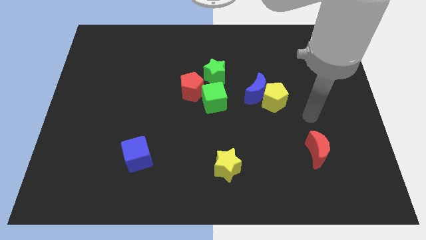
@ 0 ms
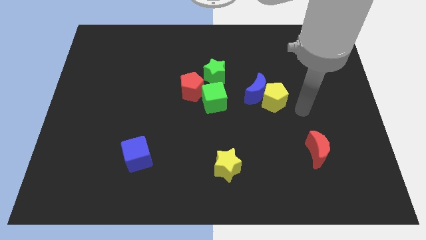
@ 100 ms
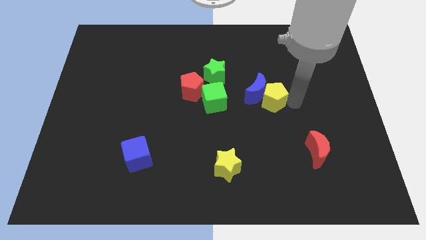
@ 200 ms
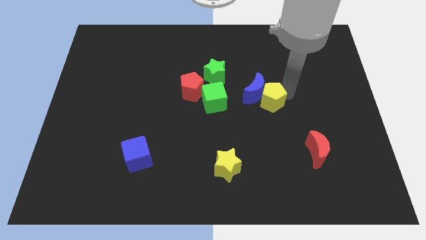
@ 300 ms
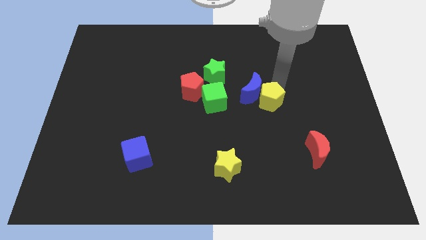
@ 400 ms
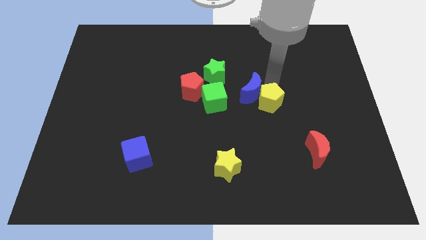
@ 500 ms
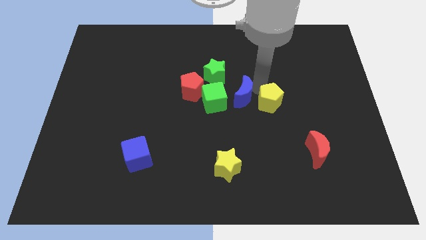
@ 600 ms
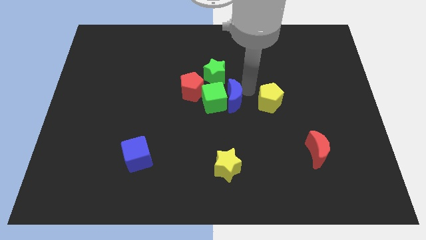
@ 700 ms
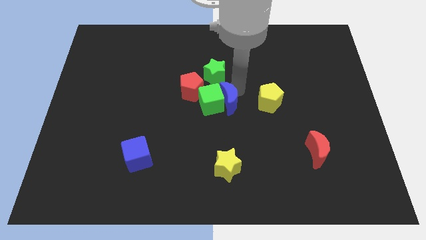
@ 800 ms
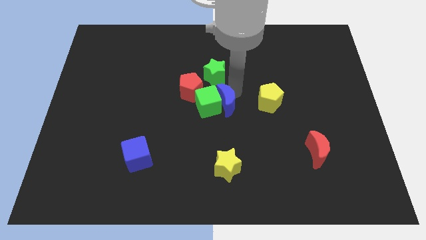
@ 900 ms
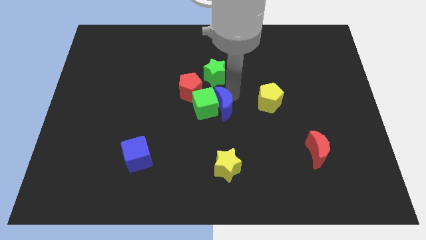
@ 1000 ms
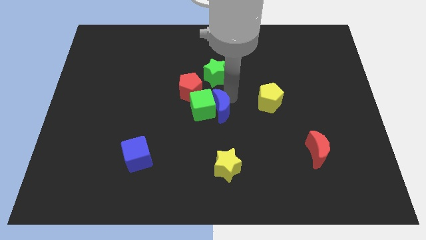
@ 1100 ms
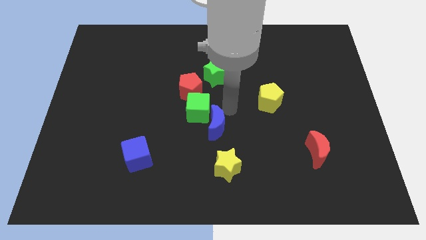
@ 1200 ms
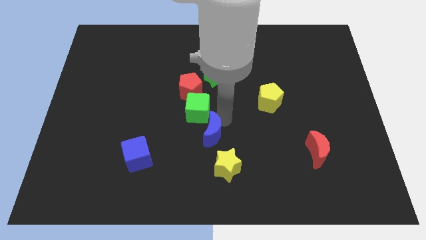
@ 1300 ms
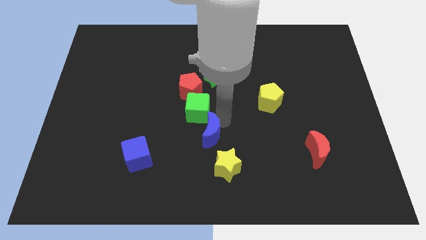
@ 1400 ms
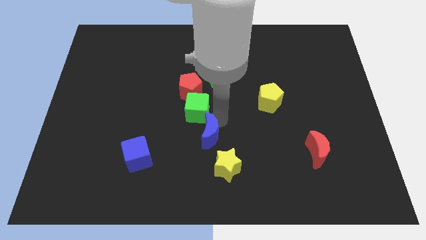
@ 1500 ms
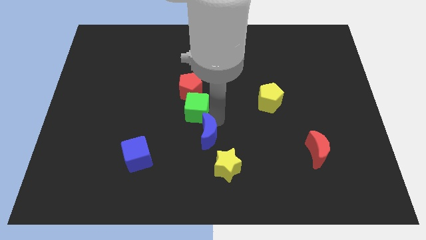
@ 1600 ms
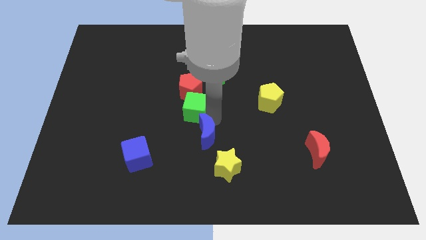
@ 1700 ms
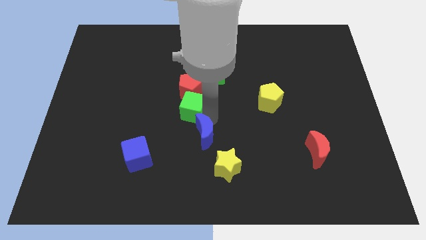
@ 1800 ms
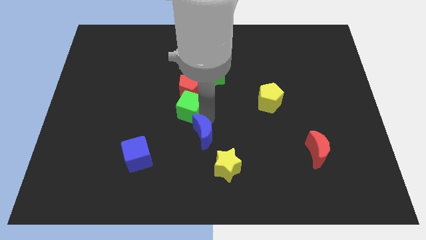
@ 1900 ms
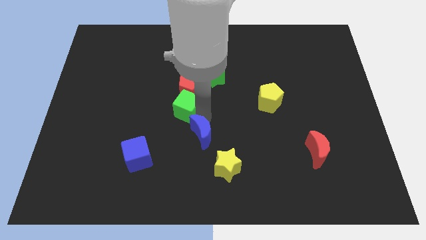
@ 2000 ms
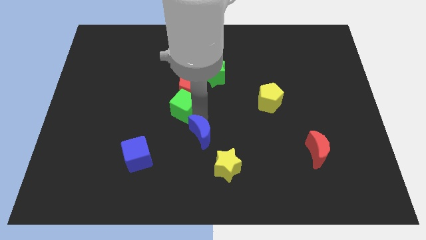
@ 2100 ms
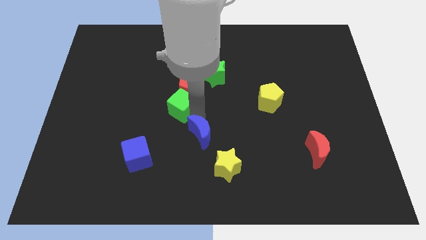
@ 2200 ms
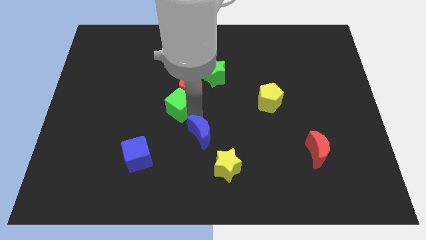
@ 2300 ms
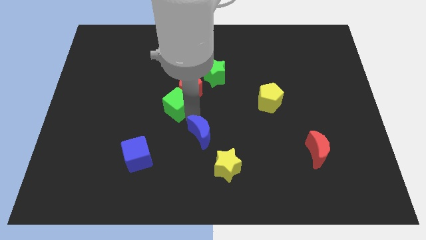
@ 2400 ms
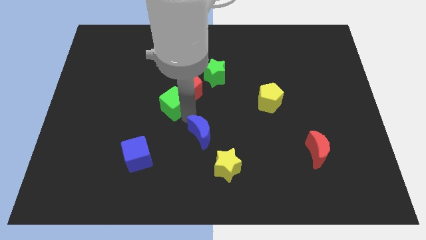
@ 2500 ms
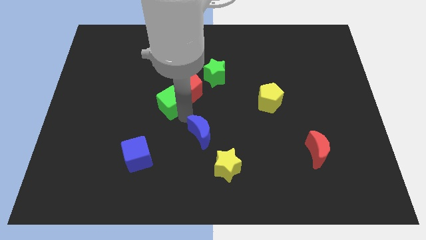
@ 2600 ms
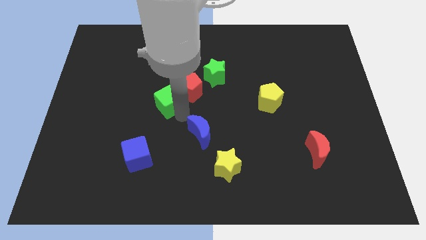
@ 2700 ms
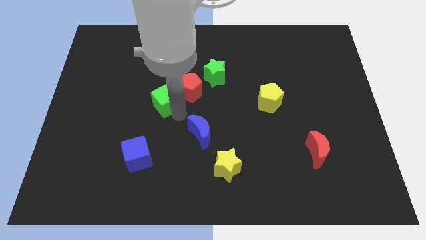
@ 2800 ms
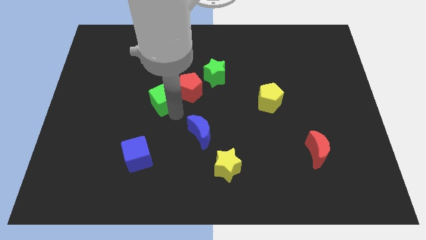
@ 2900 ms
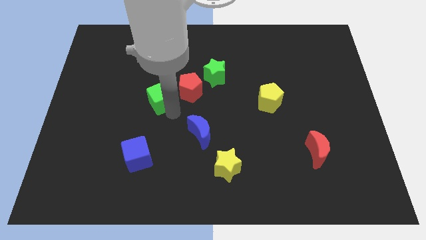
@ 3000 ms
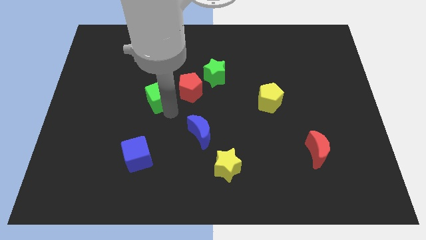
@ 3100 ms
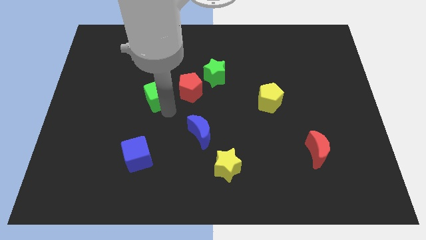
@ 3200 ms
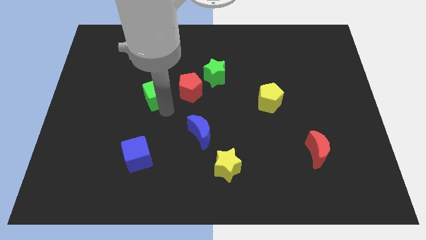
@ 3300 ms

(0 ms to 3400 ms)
push the green cube a little up and left diagonally

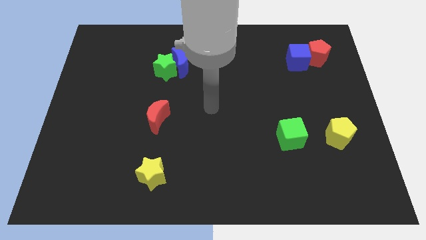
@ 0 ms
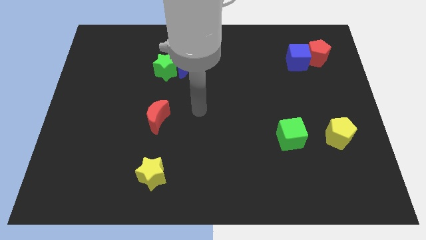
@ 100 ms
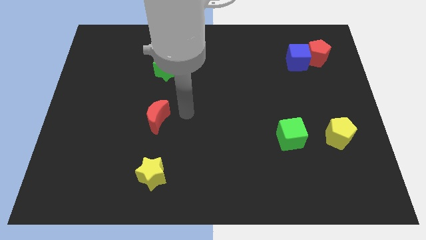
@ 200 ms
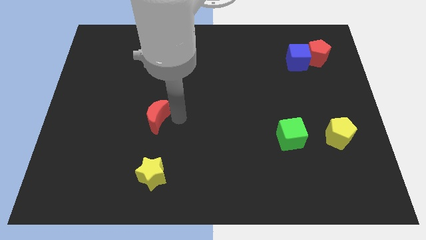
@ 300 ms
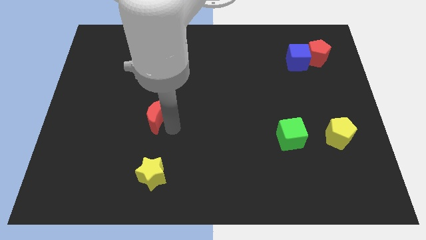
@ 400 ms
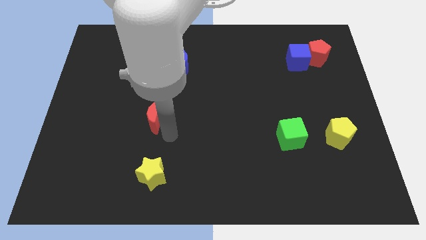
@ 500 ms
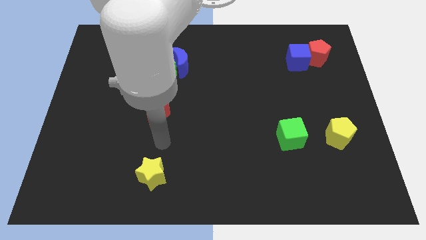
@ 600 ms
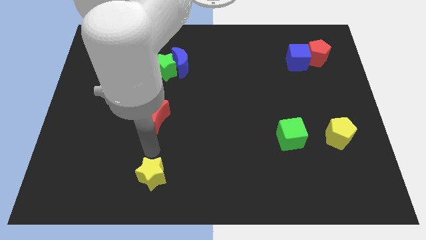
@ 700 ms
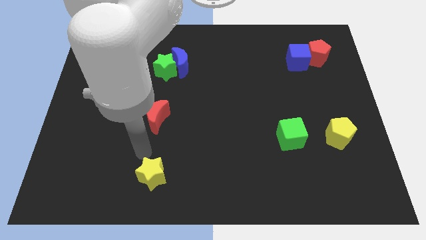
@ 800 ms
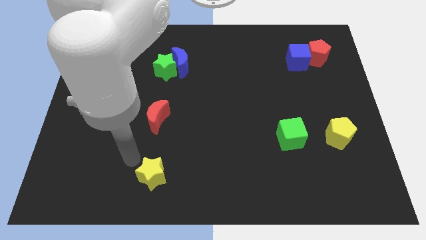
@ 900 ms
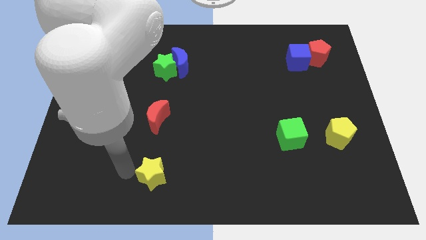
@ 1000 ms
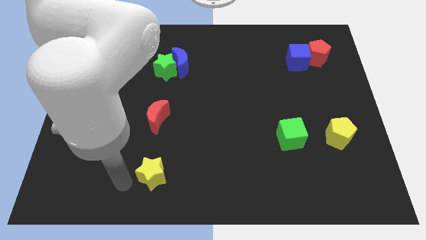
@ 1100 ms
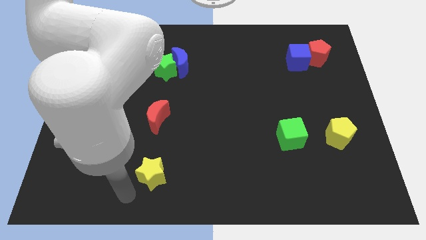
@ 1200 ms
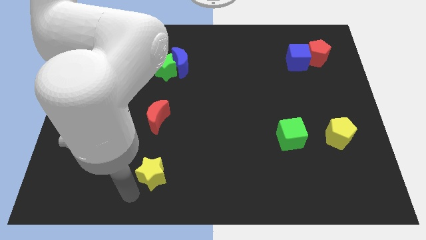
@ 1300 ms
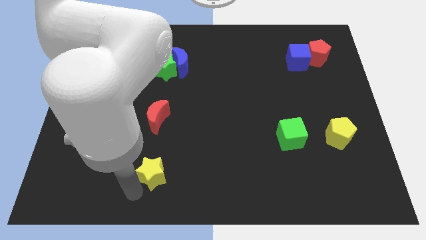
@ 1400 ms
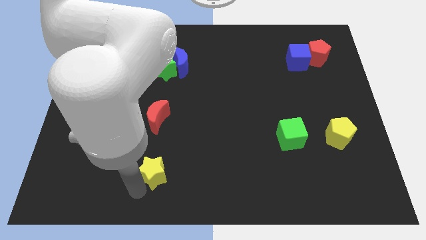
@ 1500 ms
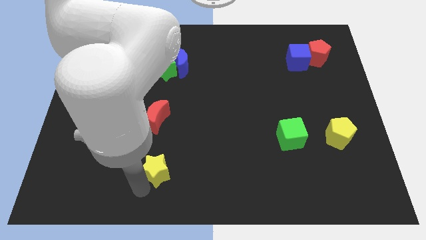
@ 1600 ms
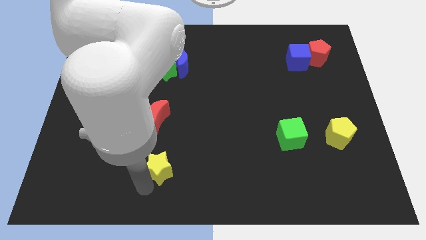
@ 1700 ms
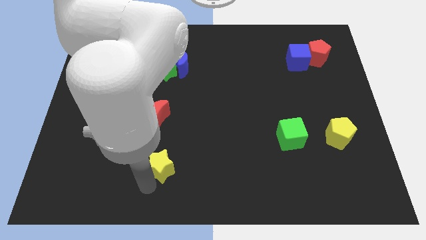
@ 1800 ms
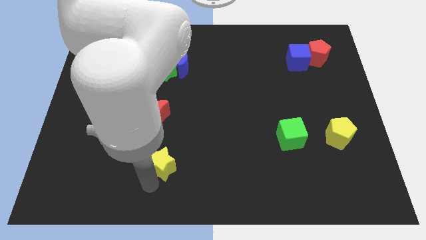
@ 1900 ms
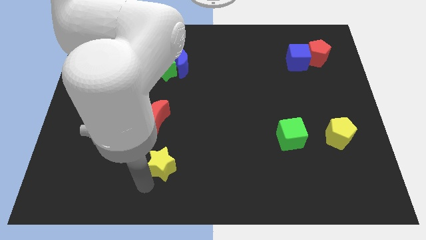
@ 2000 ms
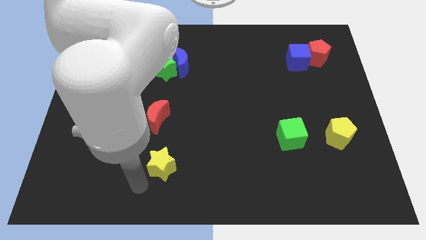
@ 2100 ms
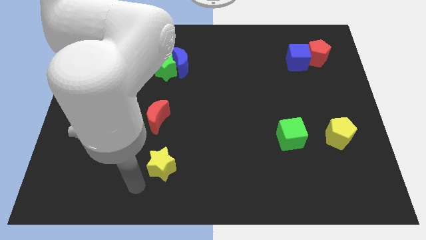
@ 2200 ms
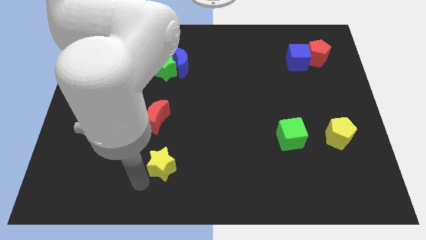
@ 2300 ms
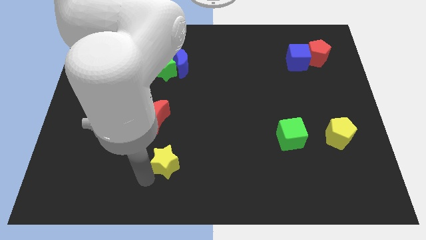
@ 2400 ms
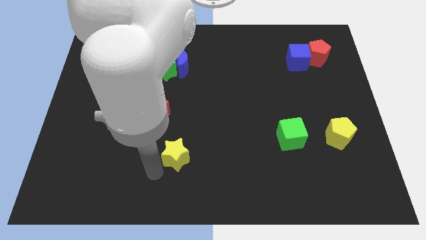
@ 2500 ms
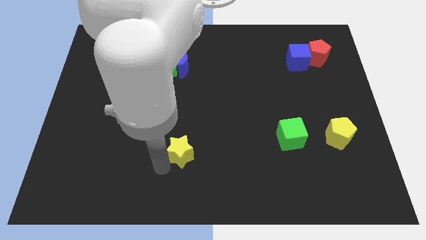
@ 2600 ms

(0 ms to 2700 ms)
push the yellow star up and to the right diagonally somewhat

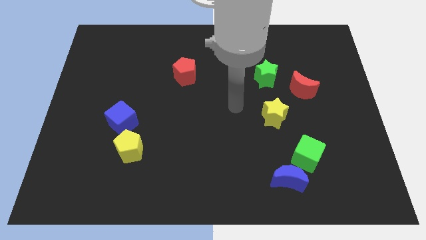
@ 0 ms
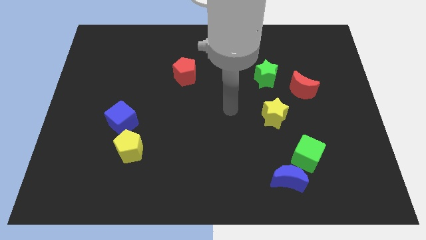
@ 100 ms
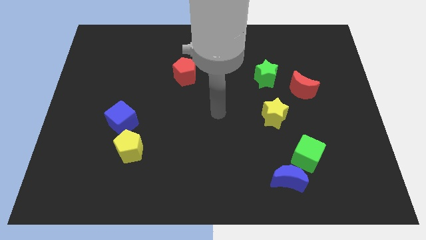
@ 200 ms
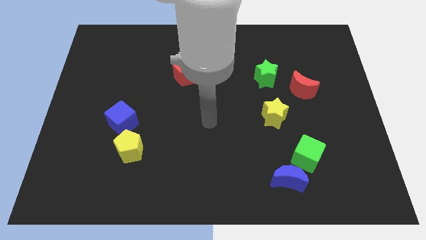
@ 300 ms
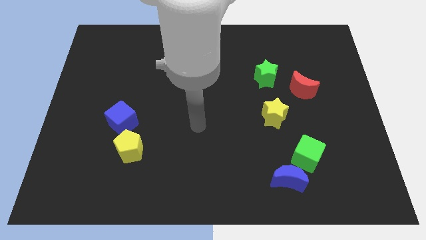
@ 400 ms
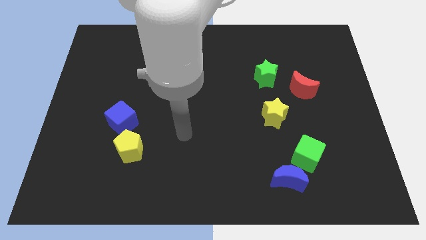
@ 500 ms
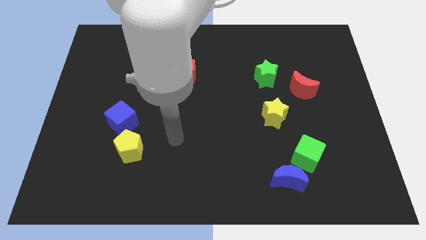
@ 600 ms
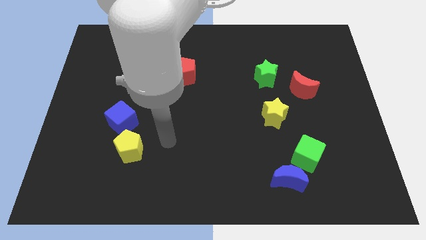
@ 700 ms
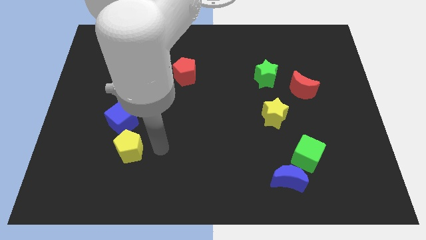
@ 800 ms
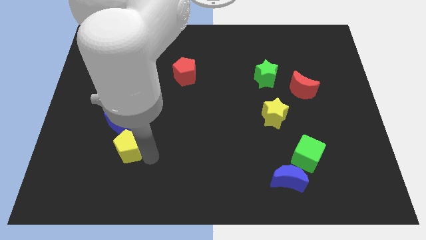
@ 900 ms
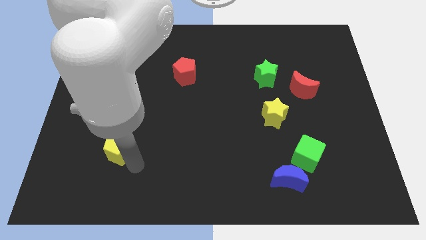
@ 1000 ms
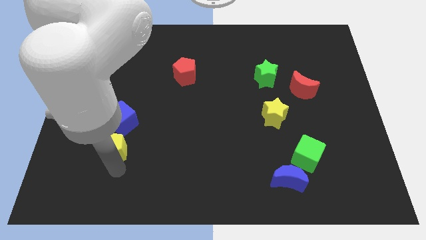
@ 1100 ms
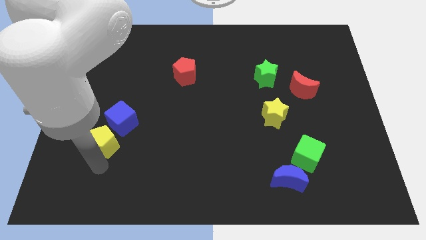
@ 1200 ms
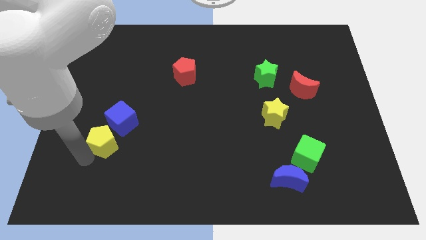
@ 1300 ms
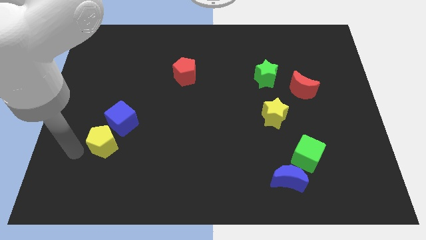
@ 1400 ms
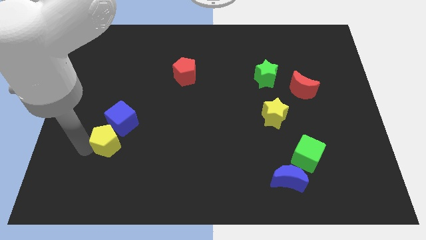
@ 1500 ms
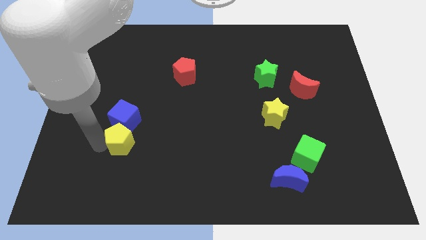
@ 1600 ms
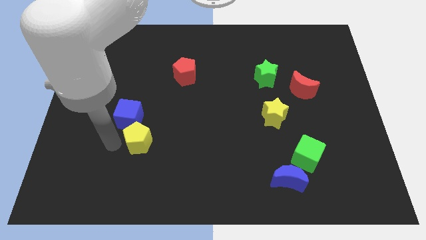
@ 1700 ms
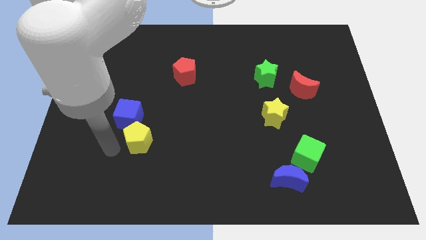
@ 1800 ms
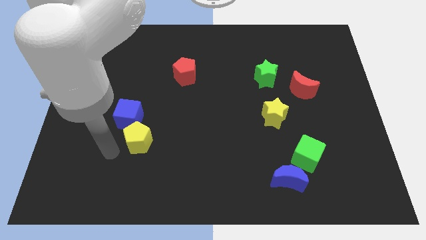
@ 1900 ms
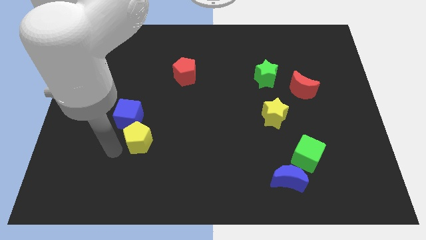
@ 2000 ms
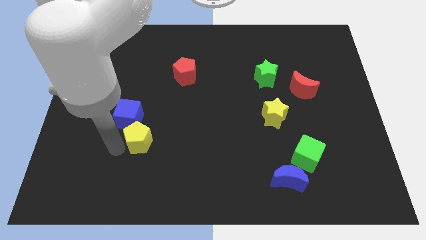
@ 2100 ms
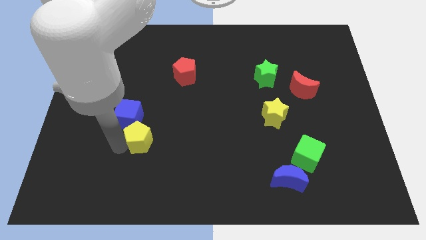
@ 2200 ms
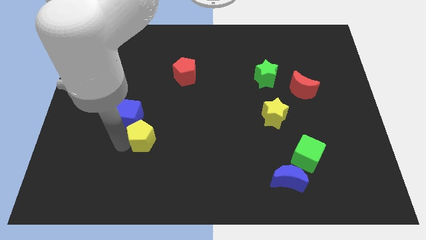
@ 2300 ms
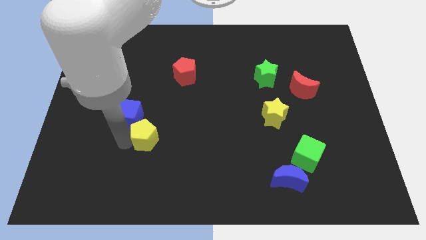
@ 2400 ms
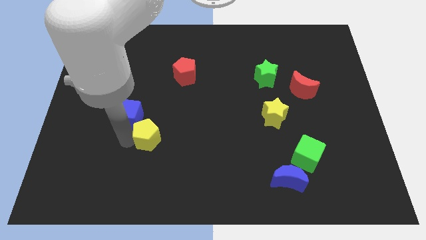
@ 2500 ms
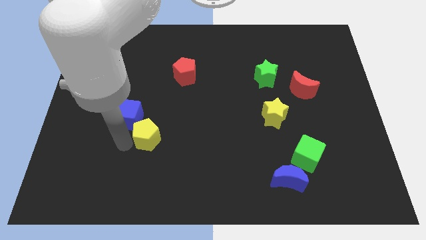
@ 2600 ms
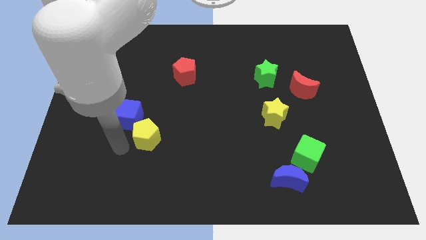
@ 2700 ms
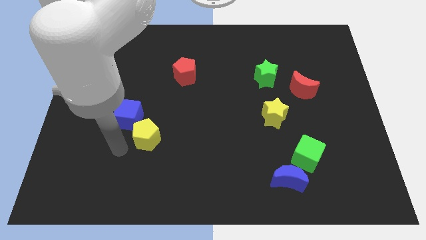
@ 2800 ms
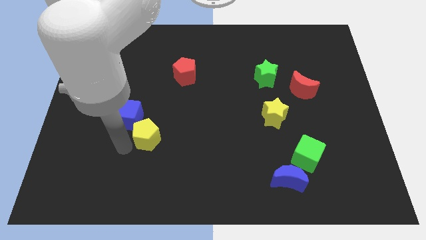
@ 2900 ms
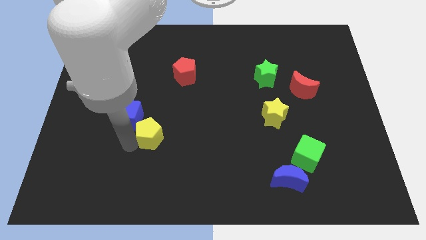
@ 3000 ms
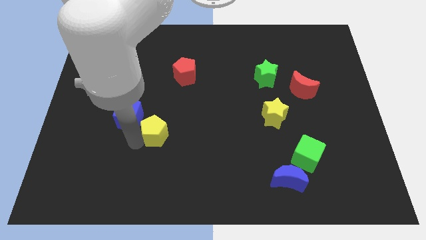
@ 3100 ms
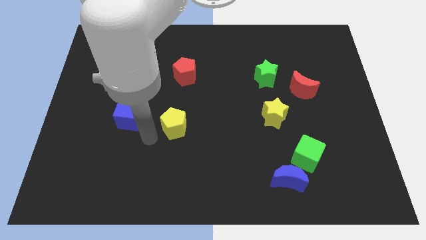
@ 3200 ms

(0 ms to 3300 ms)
move the yellow pentagon up and then right a little bit
